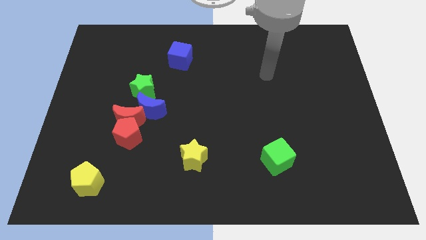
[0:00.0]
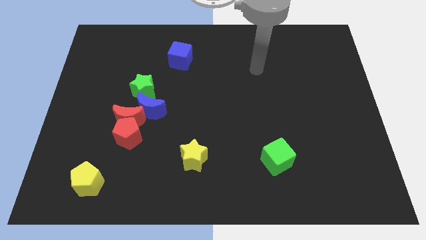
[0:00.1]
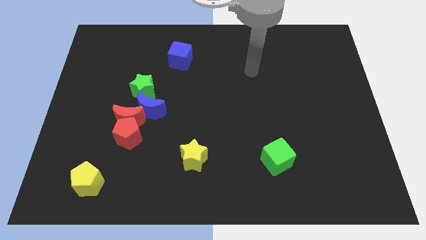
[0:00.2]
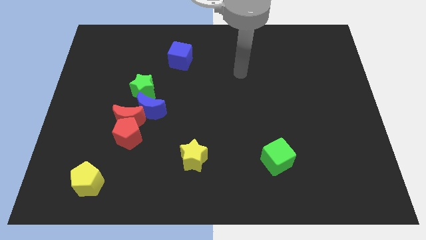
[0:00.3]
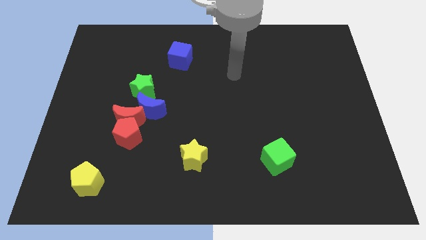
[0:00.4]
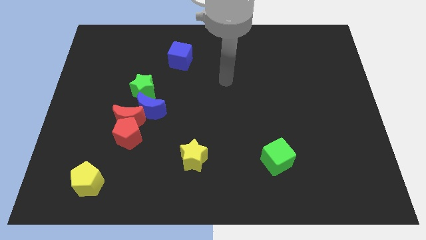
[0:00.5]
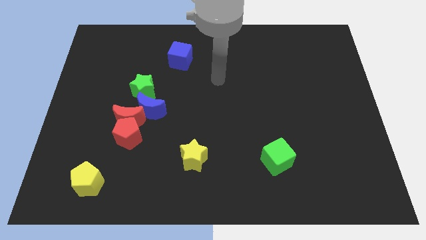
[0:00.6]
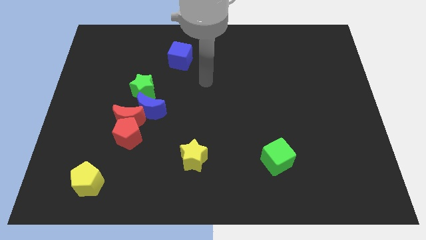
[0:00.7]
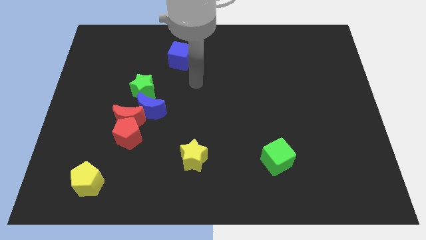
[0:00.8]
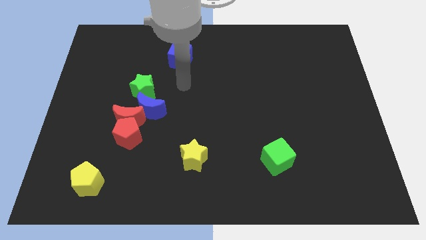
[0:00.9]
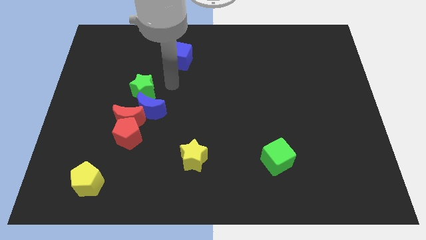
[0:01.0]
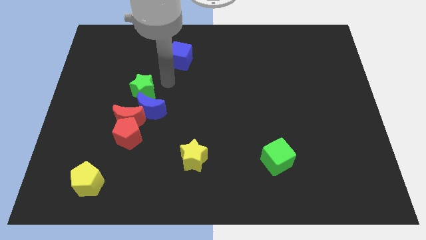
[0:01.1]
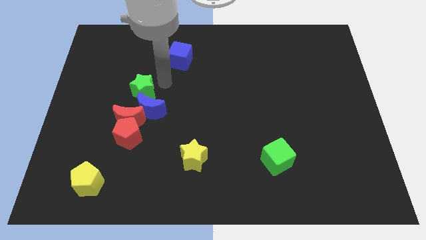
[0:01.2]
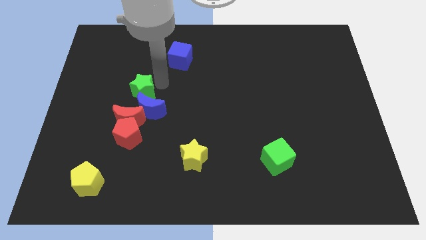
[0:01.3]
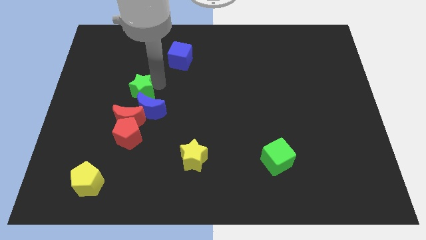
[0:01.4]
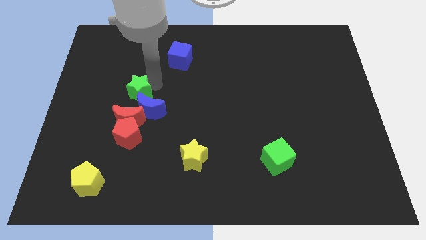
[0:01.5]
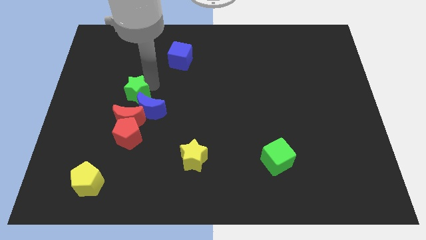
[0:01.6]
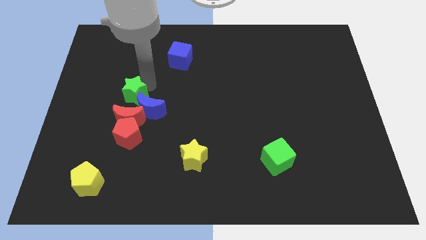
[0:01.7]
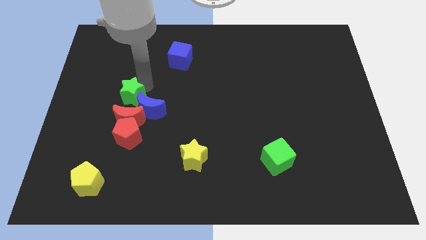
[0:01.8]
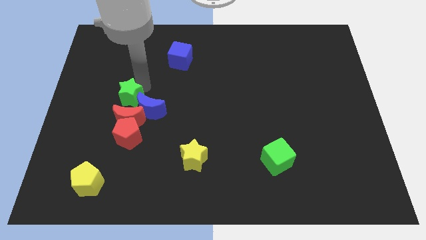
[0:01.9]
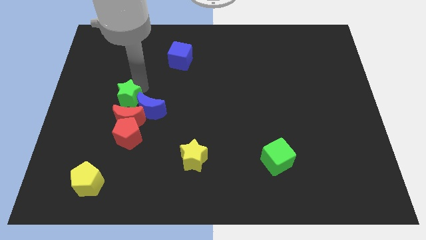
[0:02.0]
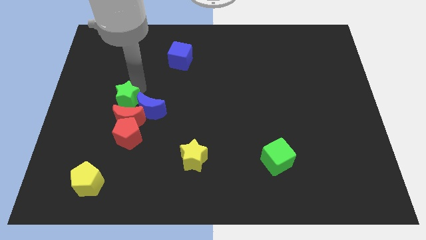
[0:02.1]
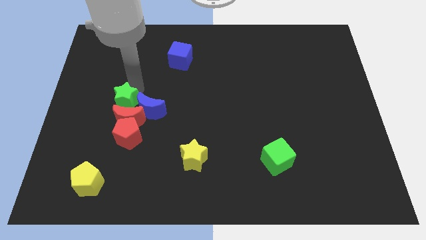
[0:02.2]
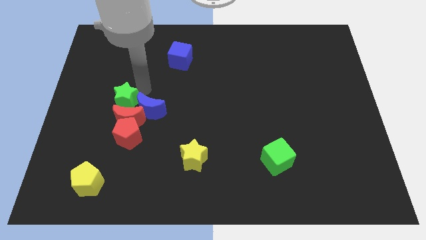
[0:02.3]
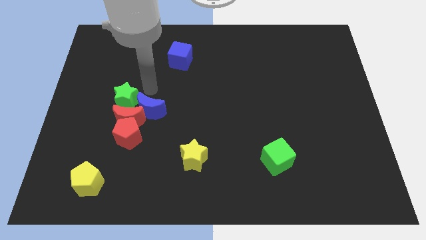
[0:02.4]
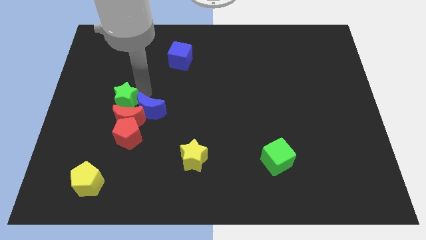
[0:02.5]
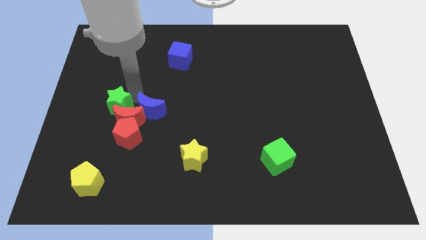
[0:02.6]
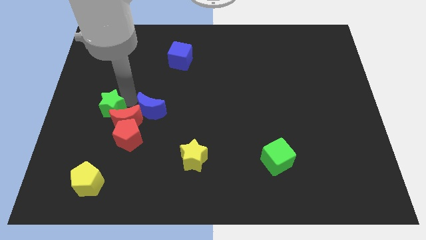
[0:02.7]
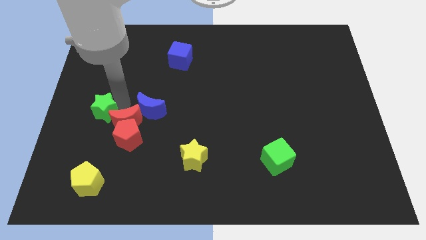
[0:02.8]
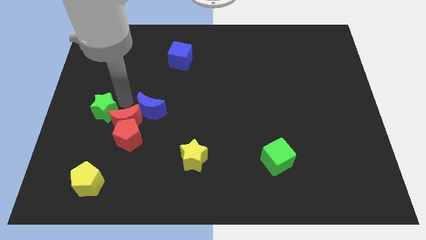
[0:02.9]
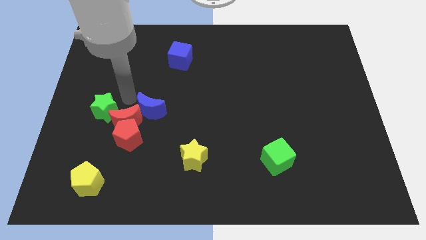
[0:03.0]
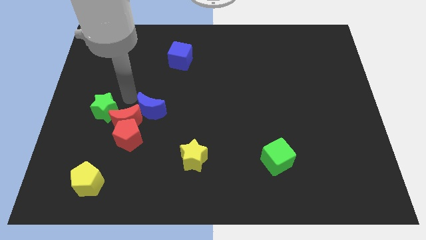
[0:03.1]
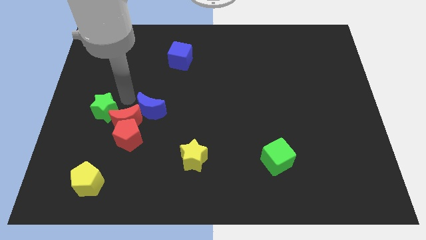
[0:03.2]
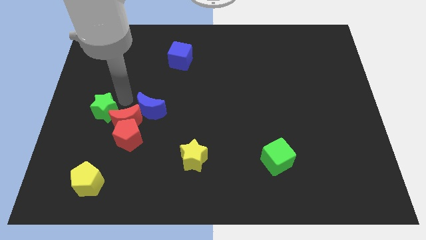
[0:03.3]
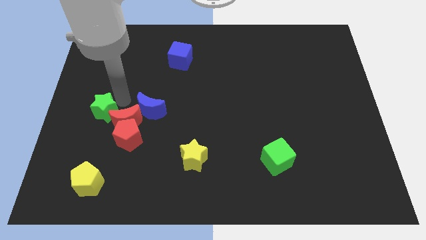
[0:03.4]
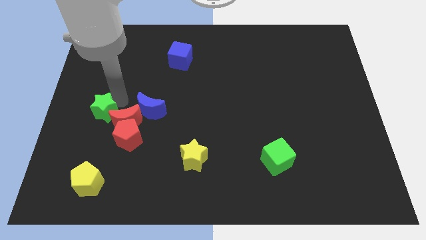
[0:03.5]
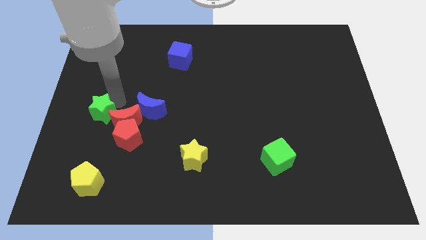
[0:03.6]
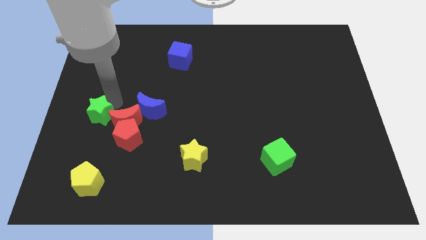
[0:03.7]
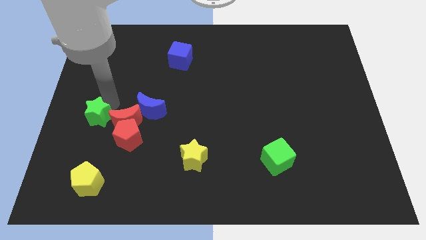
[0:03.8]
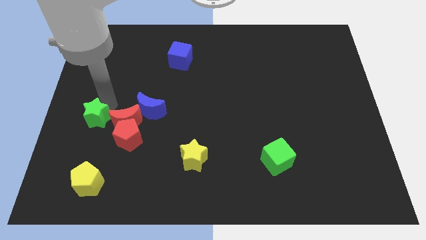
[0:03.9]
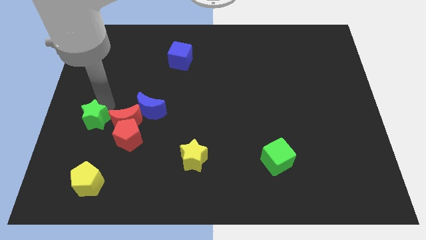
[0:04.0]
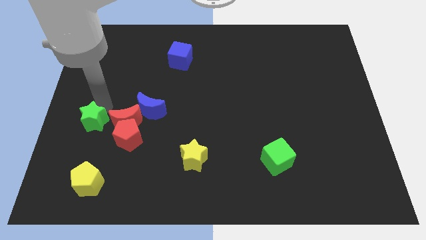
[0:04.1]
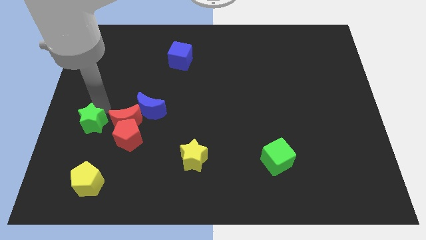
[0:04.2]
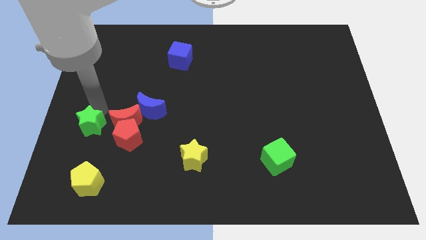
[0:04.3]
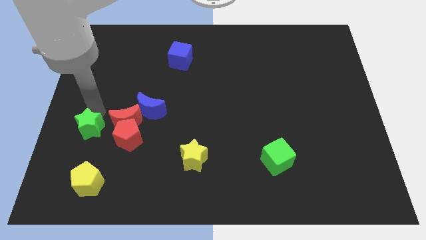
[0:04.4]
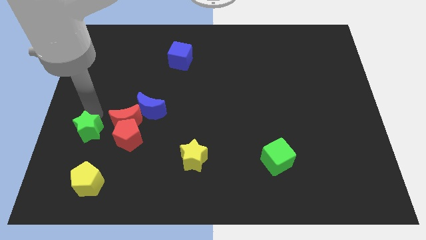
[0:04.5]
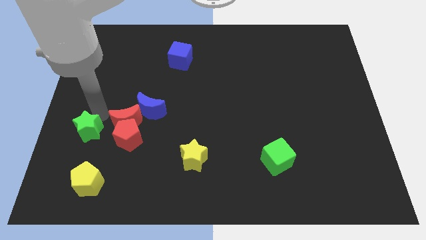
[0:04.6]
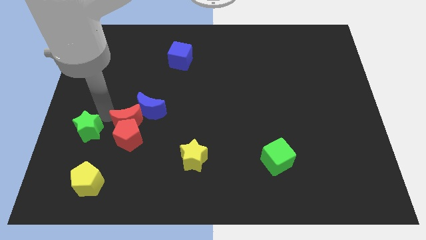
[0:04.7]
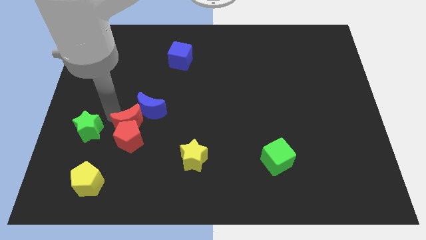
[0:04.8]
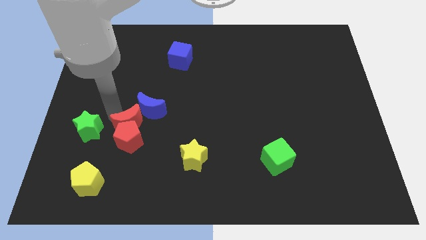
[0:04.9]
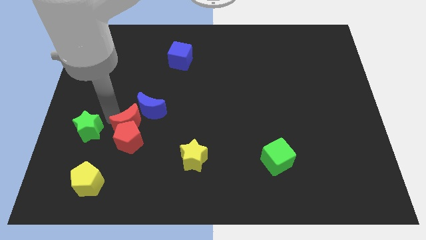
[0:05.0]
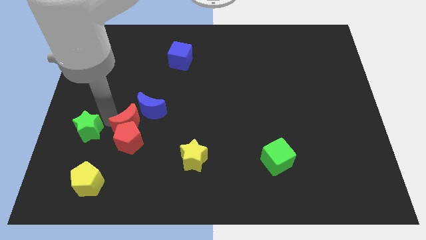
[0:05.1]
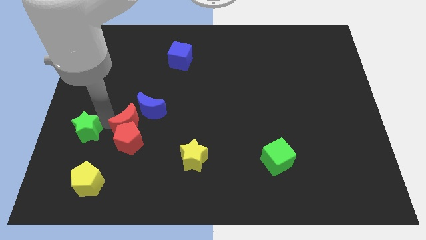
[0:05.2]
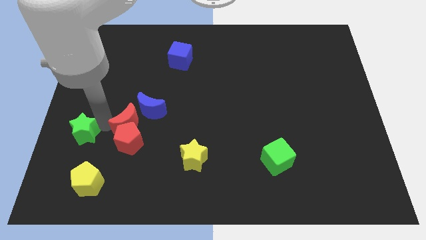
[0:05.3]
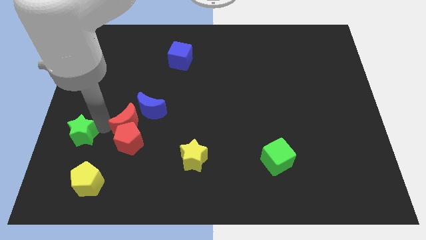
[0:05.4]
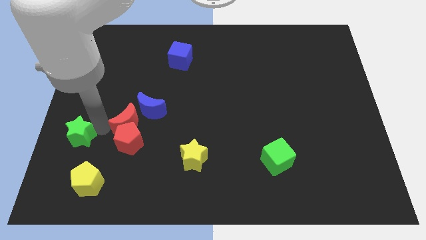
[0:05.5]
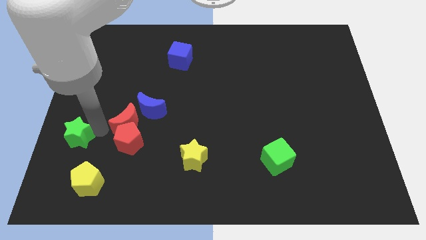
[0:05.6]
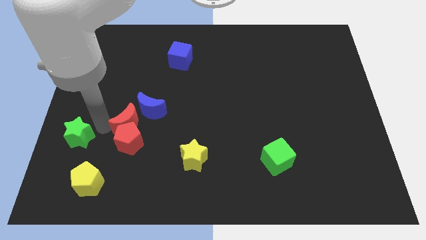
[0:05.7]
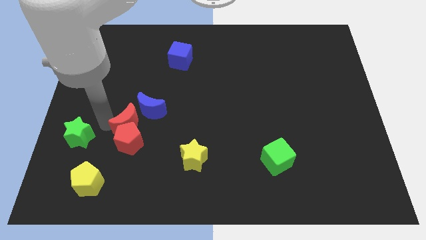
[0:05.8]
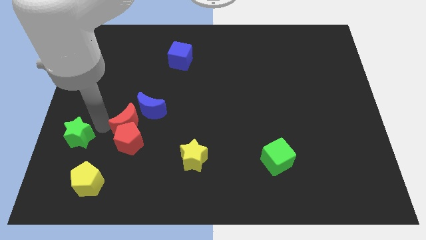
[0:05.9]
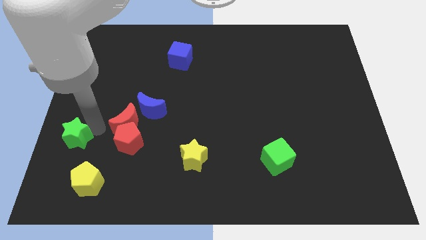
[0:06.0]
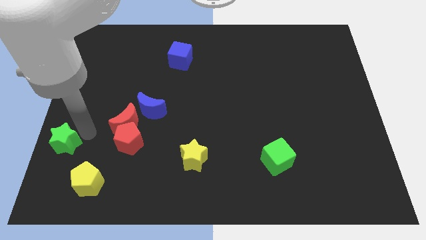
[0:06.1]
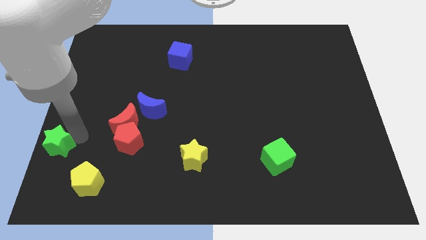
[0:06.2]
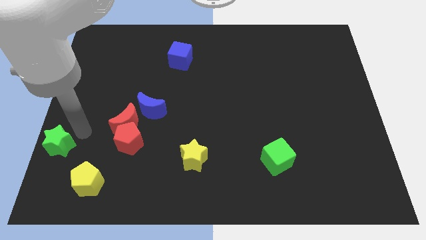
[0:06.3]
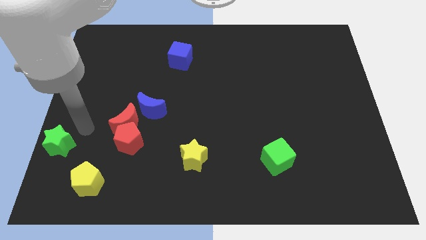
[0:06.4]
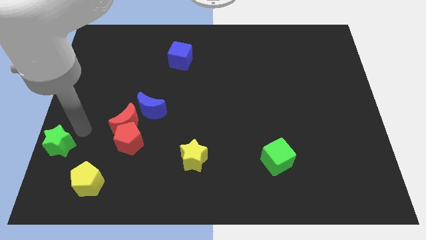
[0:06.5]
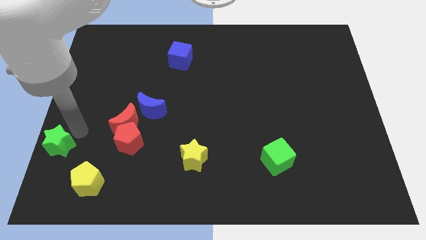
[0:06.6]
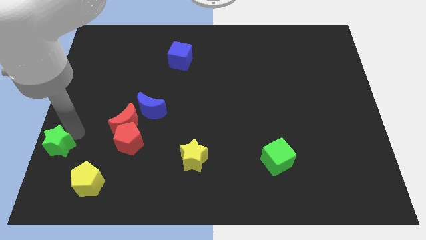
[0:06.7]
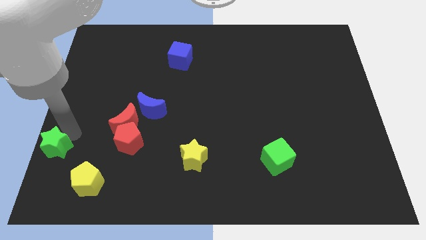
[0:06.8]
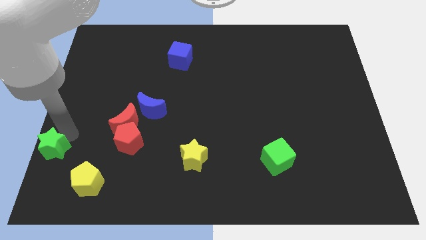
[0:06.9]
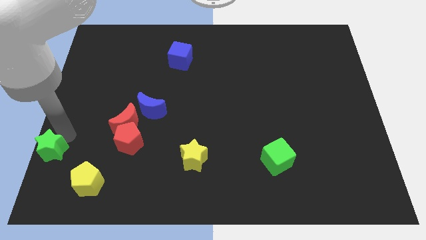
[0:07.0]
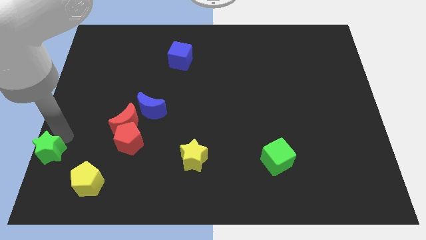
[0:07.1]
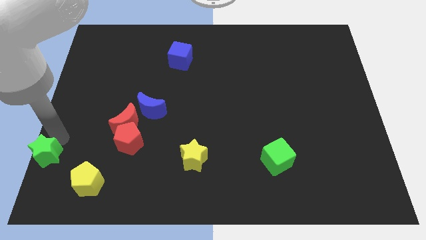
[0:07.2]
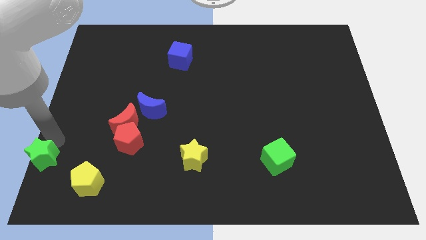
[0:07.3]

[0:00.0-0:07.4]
push the green star to the bottom left corner
